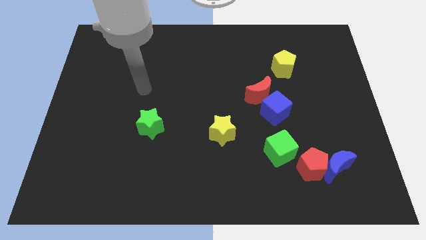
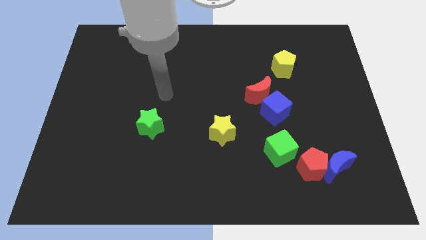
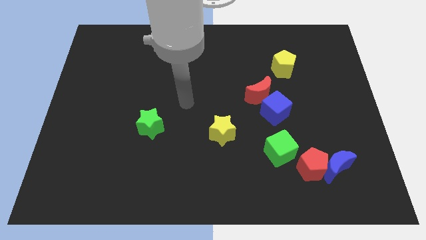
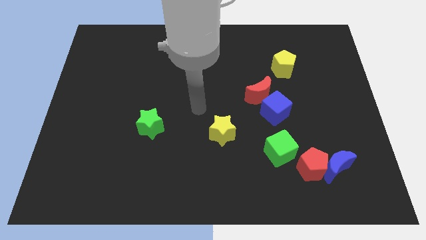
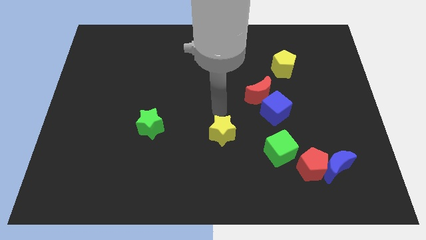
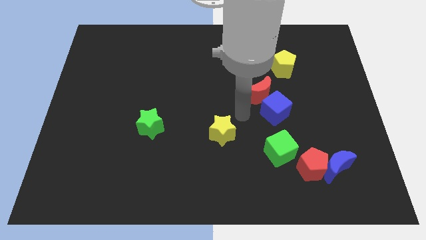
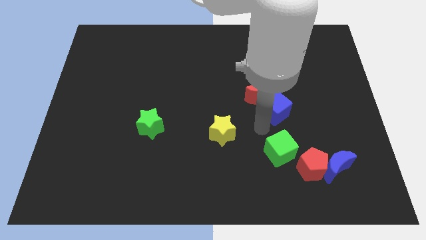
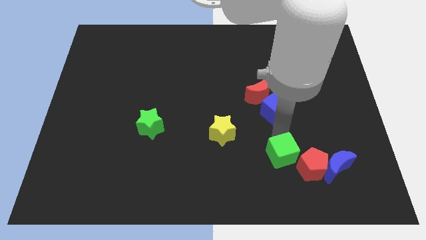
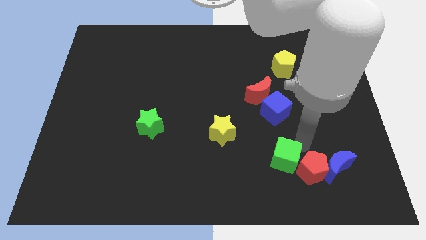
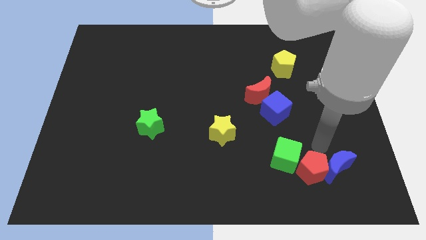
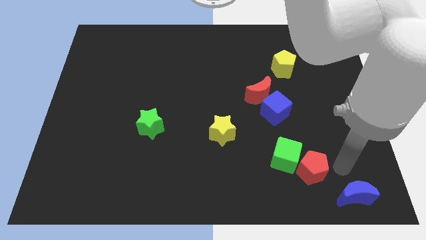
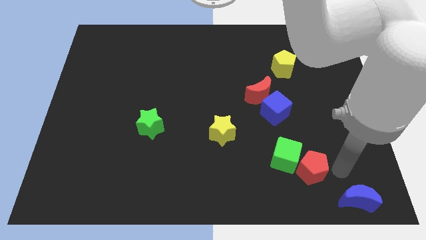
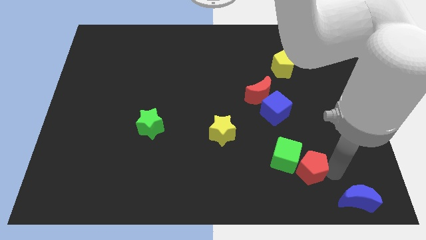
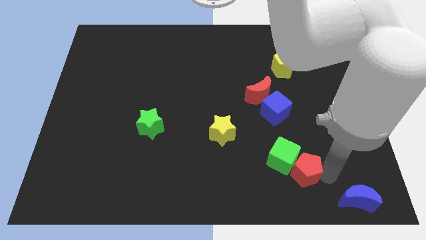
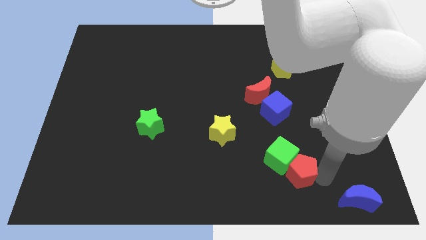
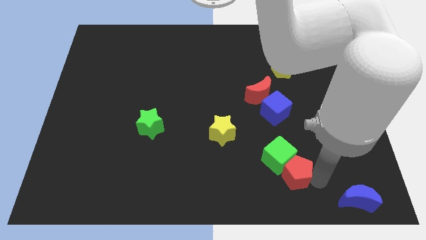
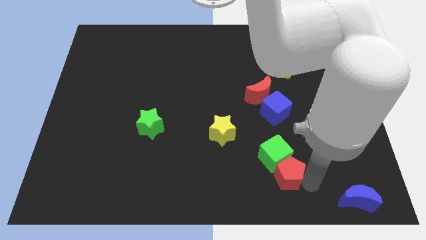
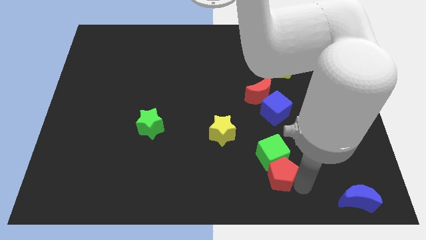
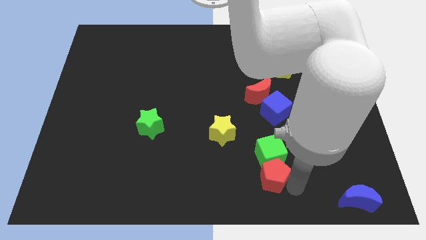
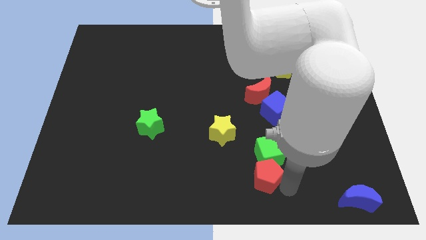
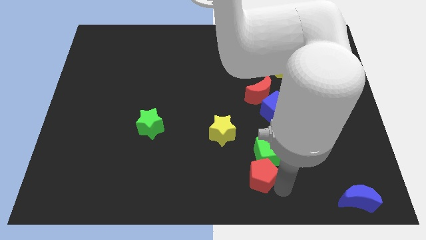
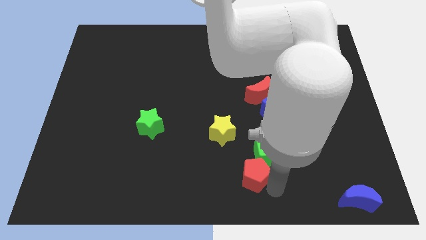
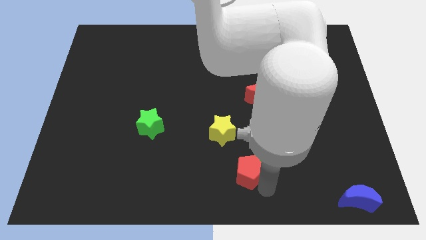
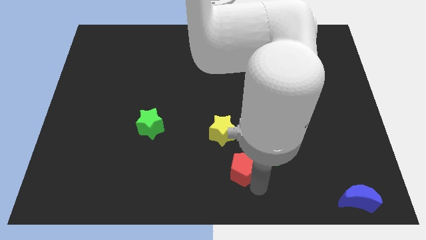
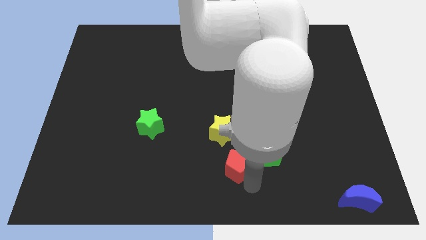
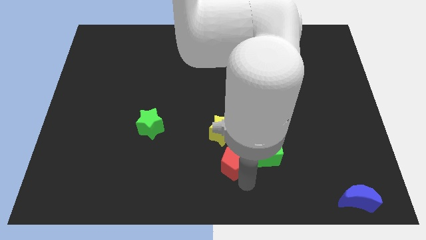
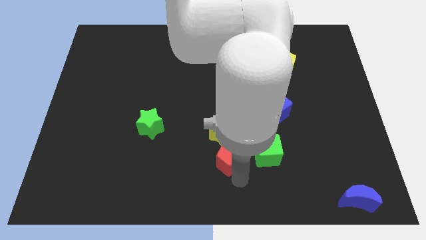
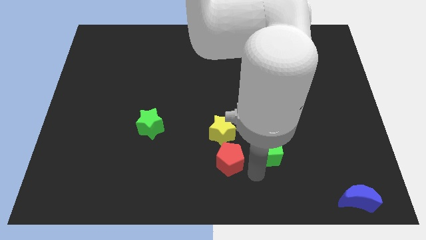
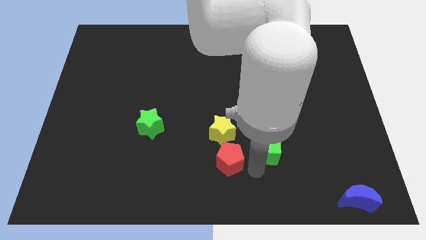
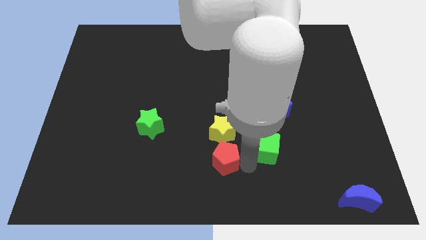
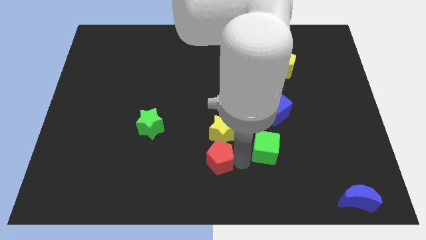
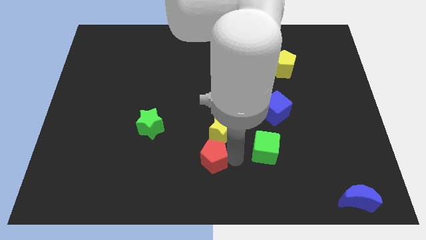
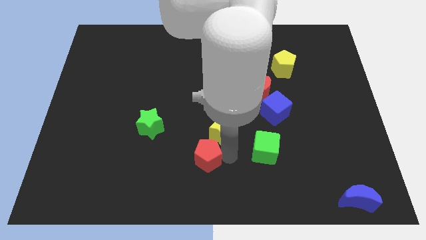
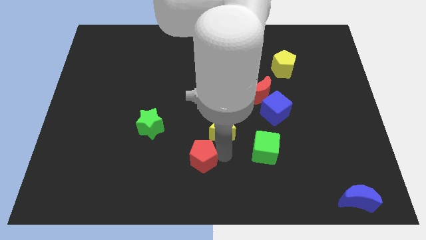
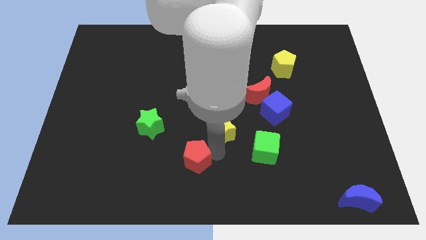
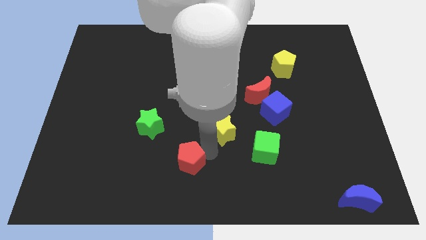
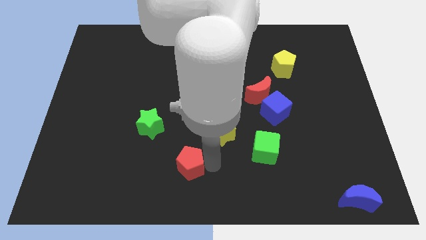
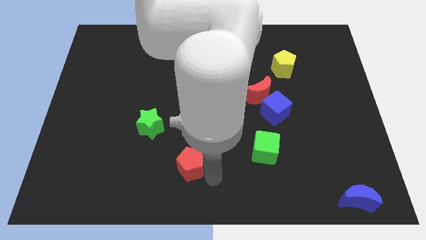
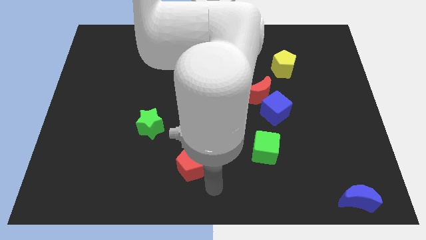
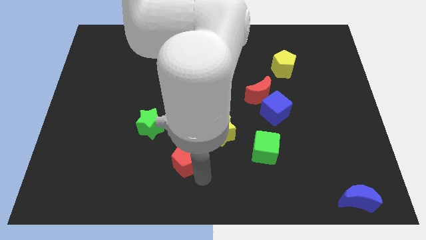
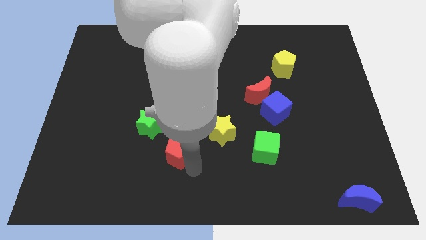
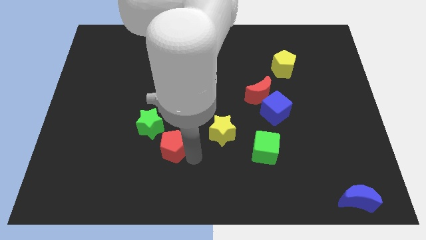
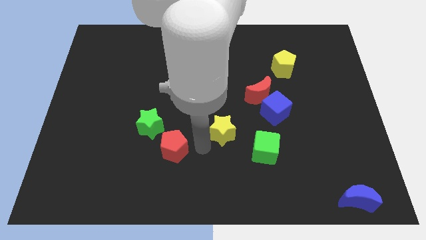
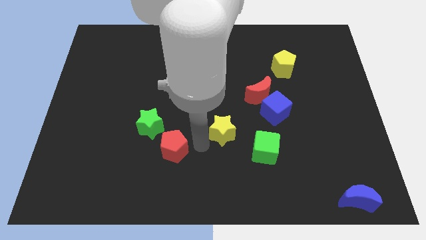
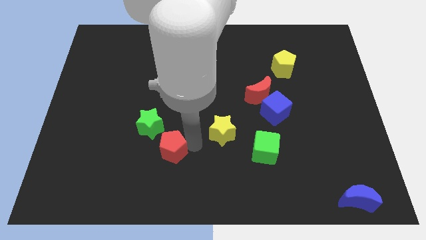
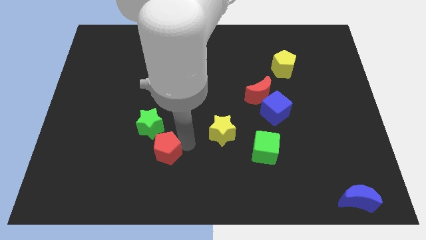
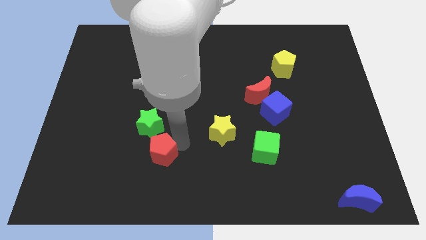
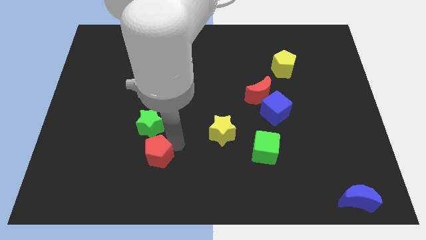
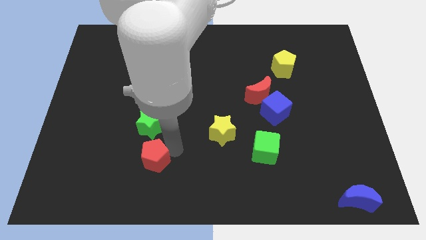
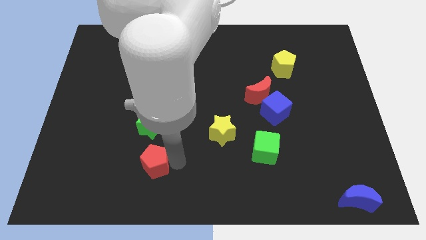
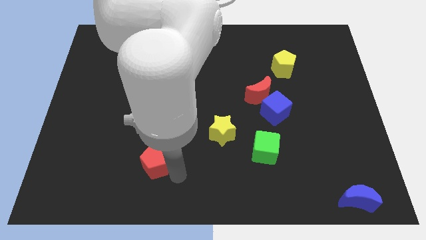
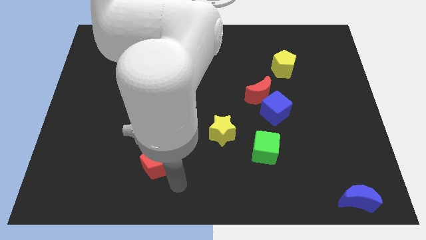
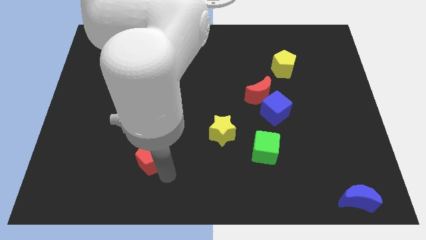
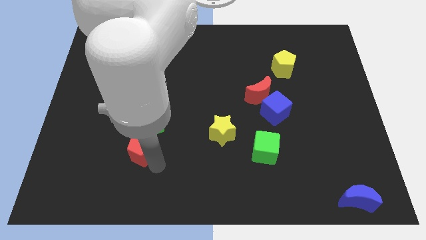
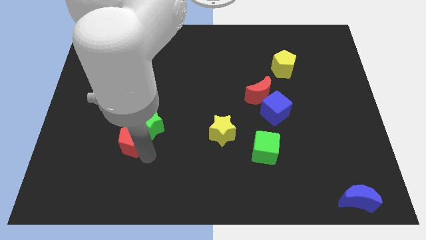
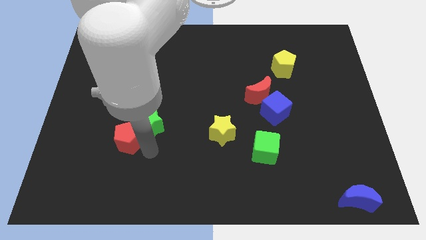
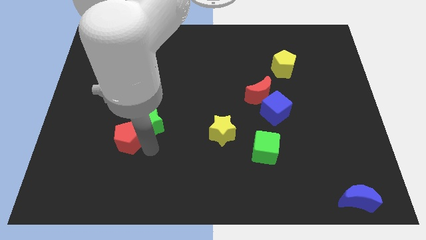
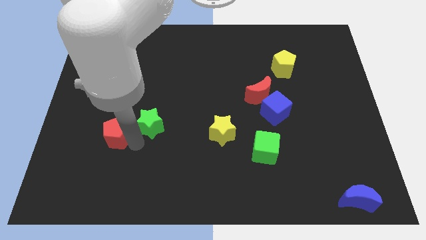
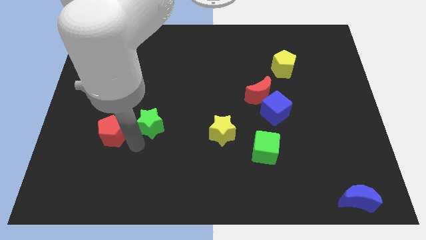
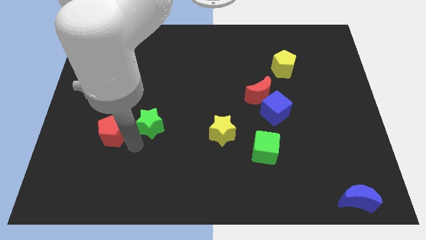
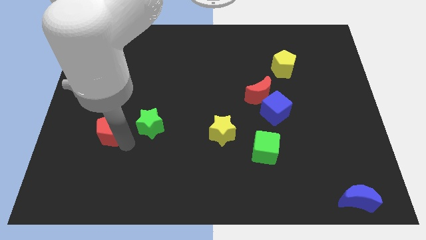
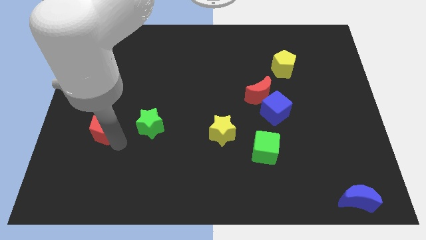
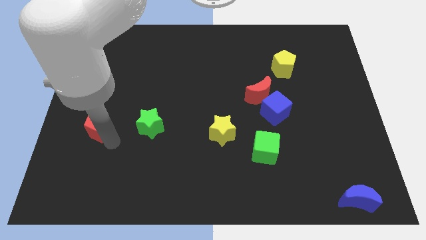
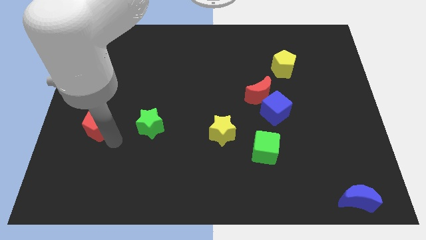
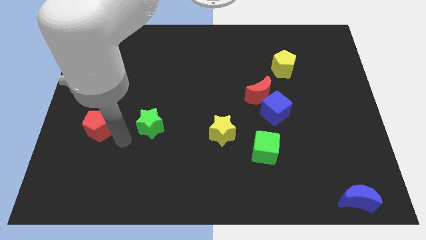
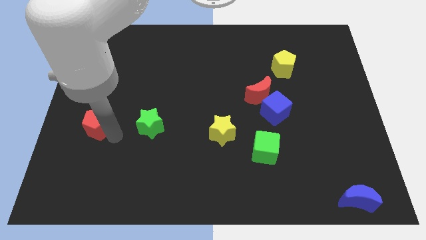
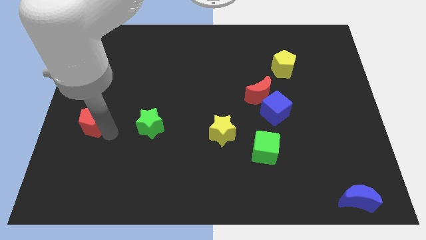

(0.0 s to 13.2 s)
put the red pentagon to the left side

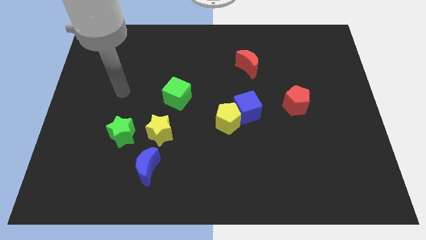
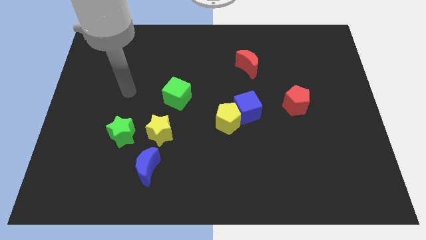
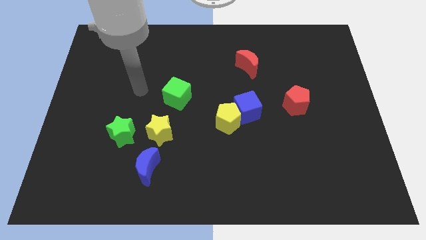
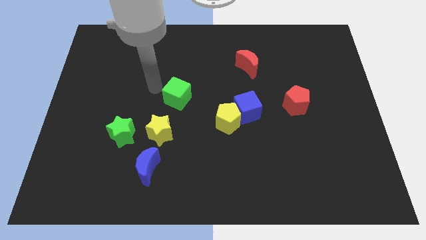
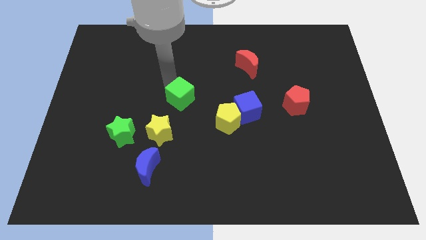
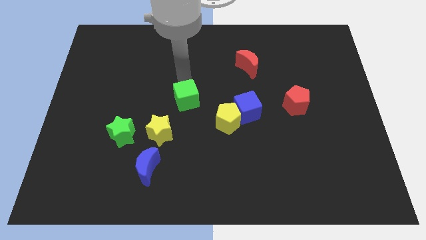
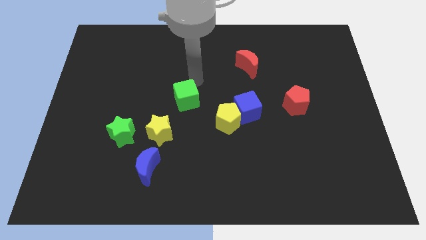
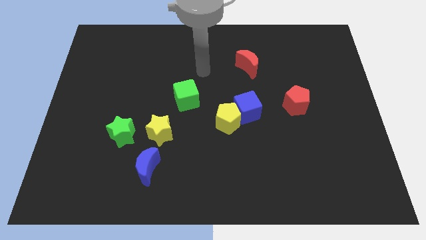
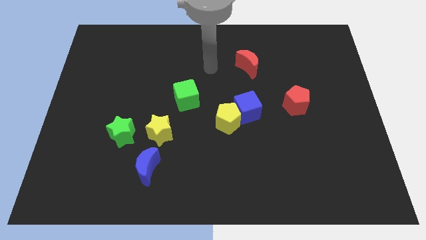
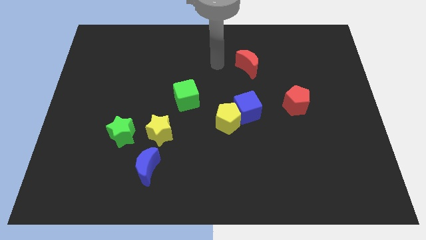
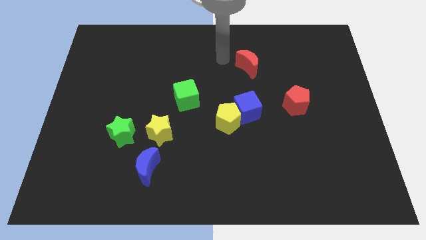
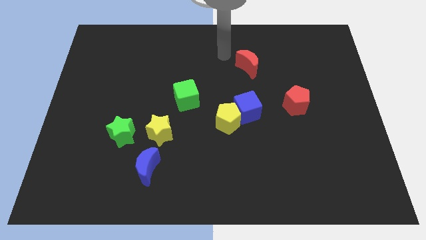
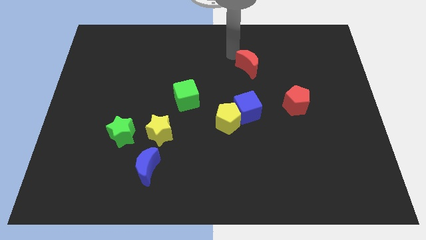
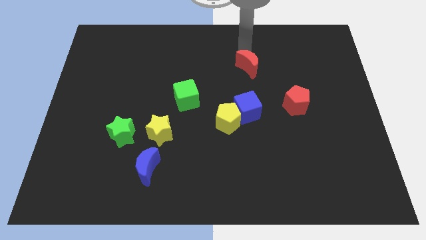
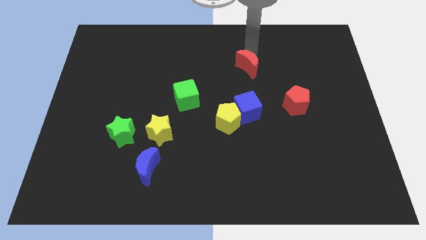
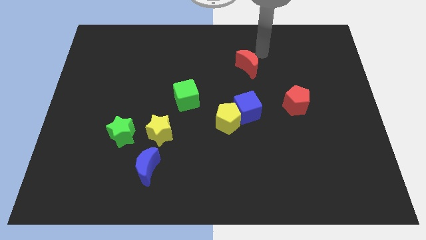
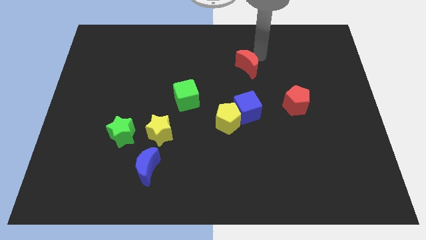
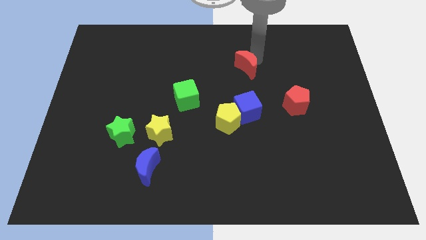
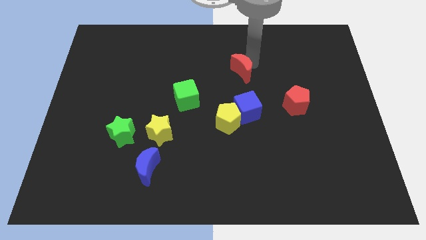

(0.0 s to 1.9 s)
push the red moon to the center
